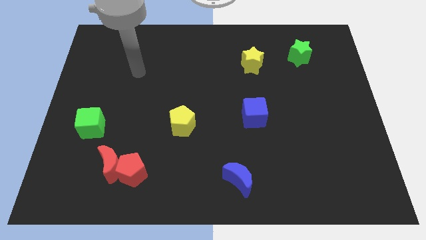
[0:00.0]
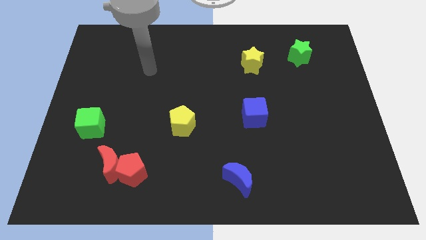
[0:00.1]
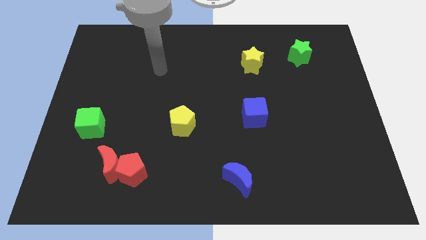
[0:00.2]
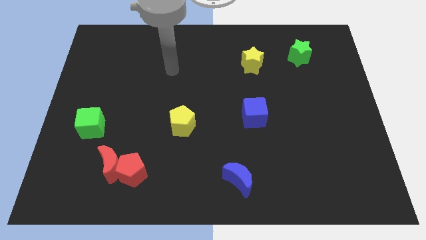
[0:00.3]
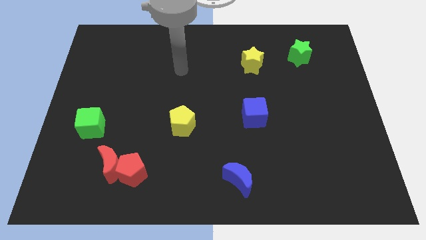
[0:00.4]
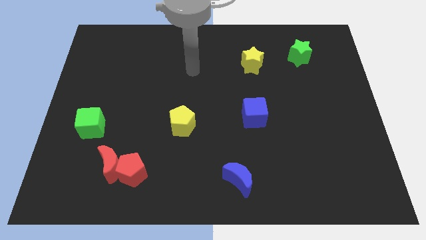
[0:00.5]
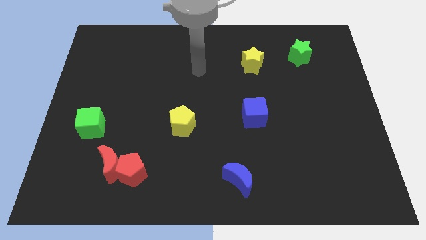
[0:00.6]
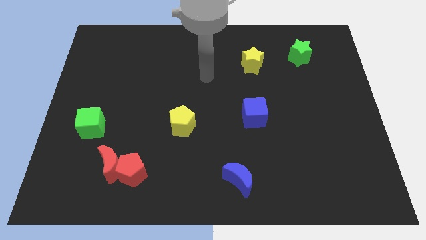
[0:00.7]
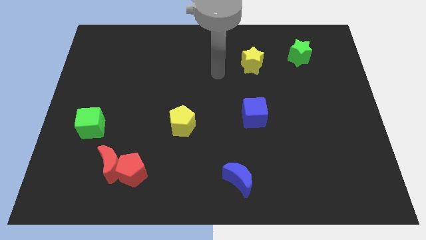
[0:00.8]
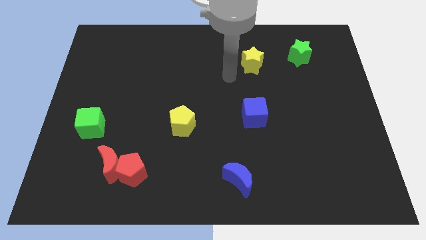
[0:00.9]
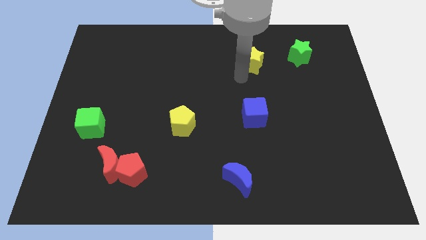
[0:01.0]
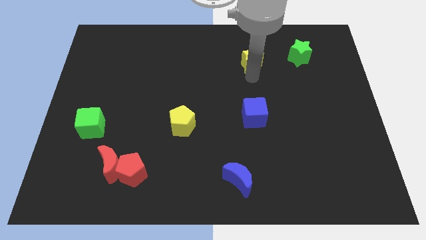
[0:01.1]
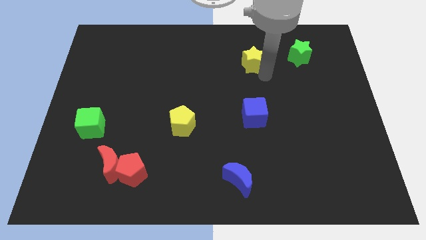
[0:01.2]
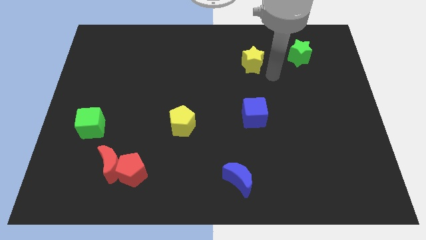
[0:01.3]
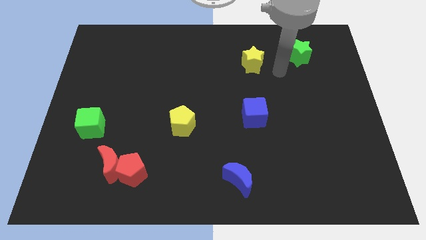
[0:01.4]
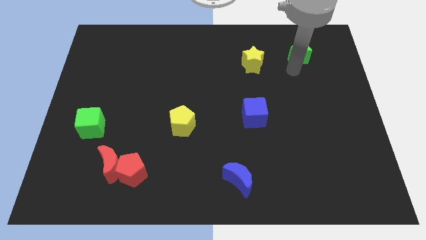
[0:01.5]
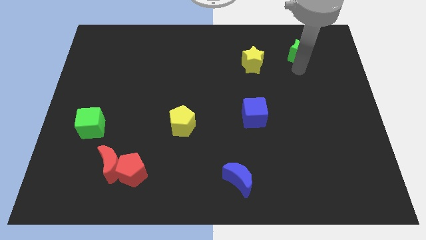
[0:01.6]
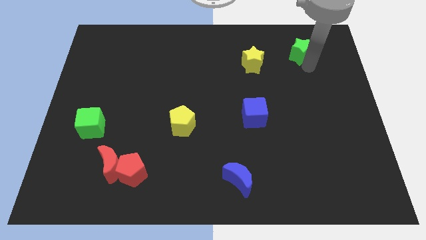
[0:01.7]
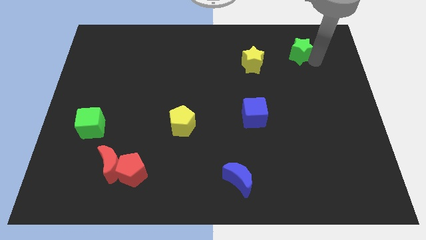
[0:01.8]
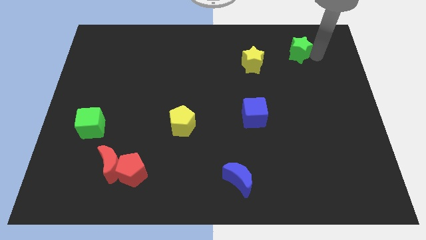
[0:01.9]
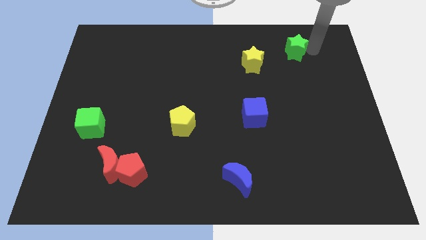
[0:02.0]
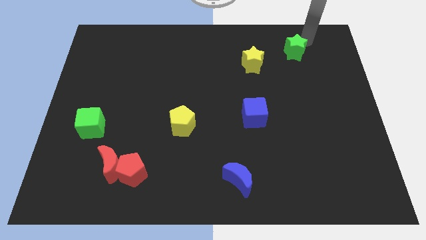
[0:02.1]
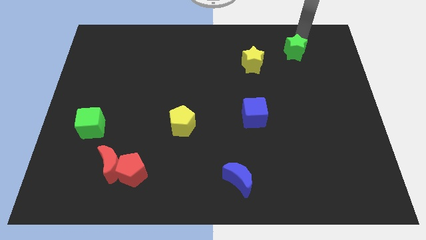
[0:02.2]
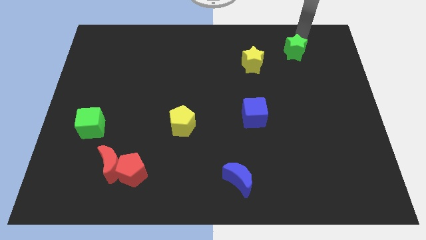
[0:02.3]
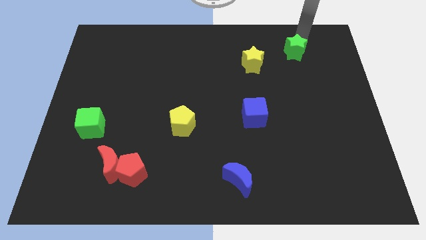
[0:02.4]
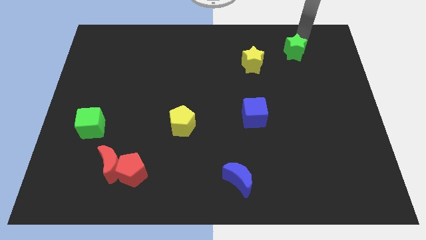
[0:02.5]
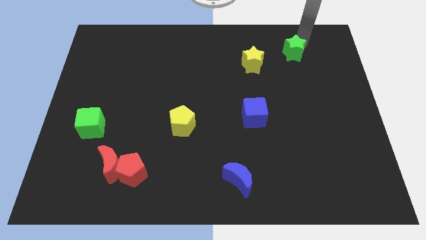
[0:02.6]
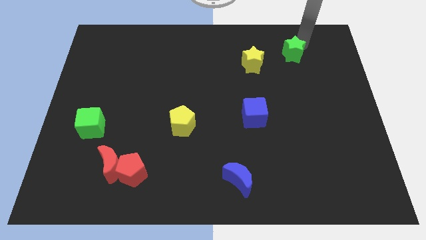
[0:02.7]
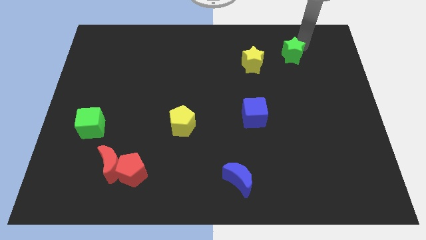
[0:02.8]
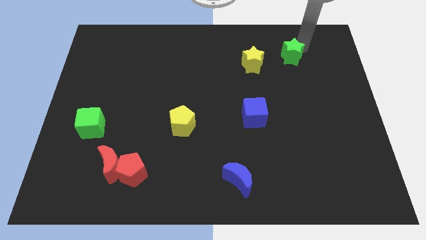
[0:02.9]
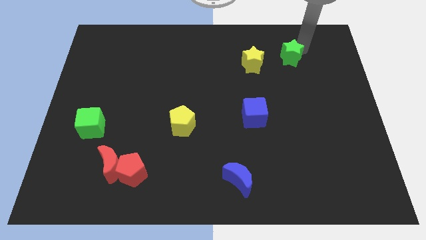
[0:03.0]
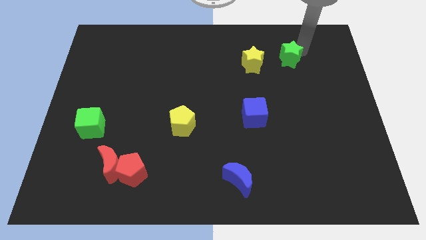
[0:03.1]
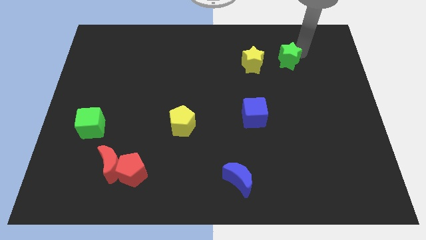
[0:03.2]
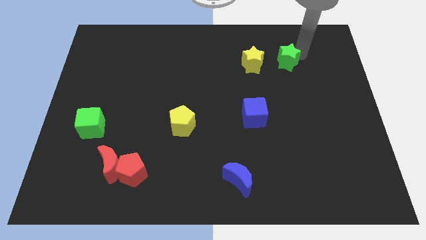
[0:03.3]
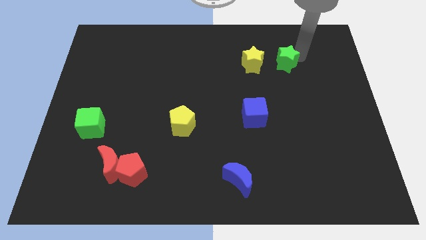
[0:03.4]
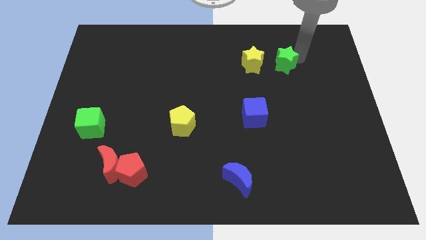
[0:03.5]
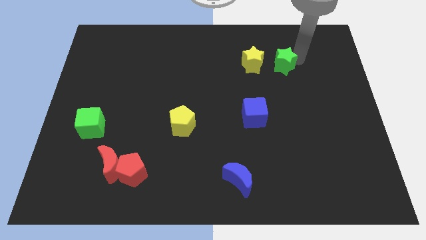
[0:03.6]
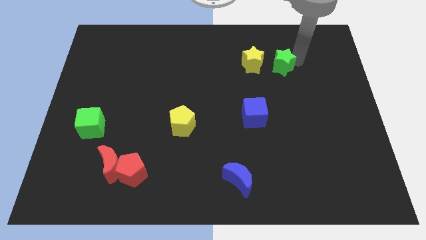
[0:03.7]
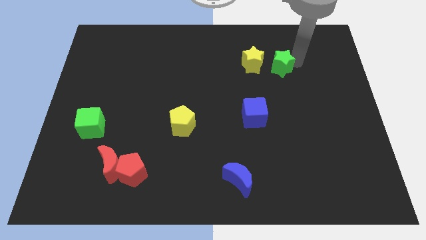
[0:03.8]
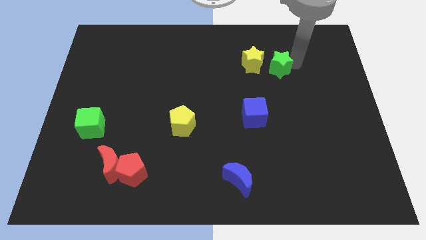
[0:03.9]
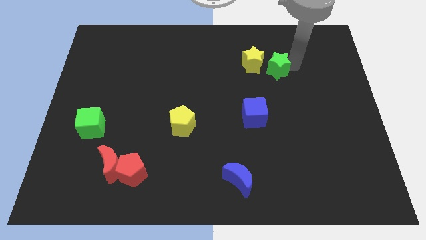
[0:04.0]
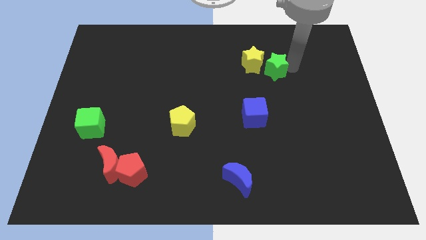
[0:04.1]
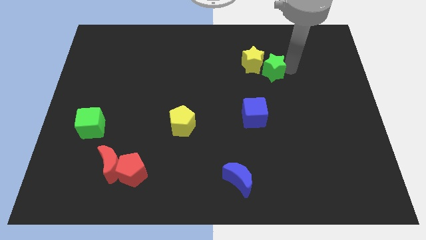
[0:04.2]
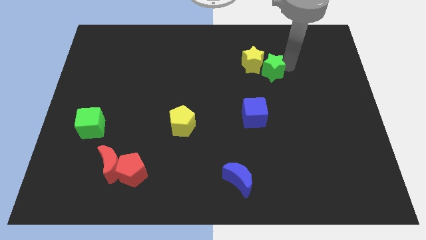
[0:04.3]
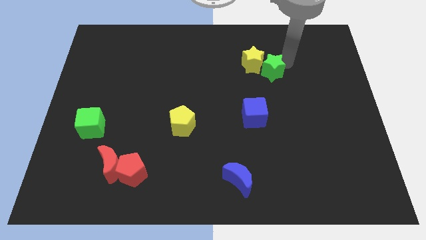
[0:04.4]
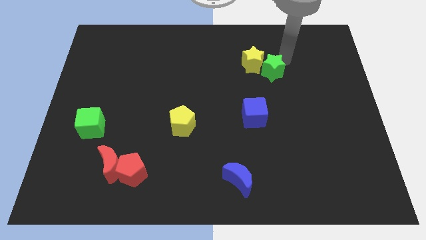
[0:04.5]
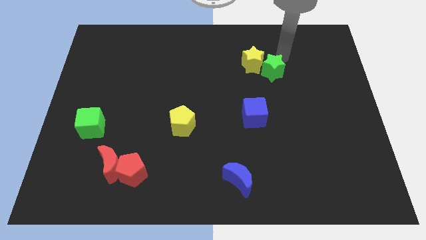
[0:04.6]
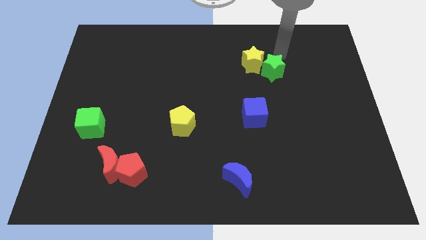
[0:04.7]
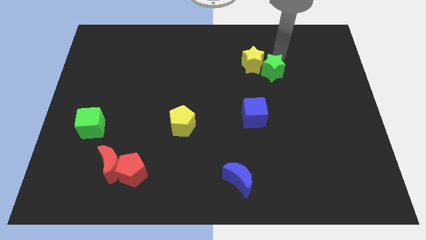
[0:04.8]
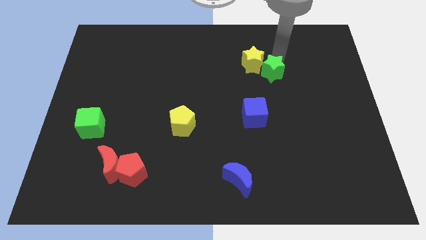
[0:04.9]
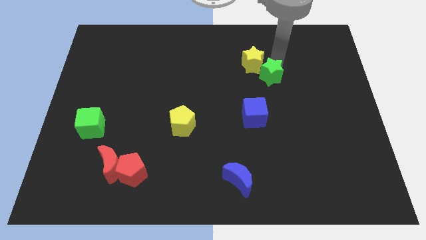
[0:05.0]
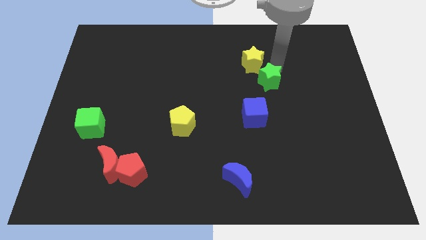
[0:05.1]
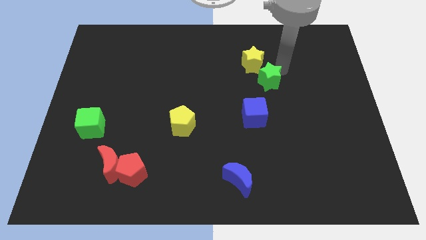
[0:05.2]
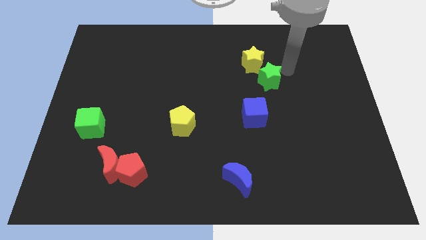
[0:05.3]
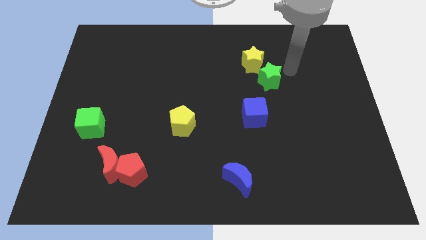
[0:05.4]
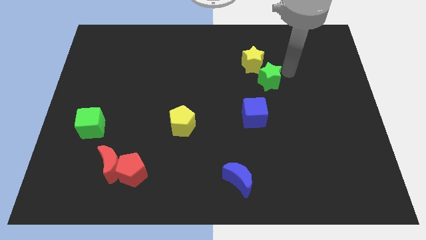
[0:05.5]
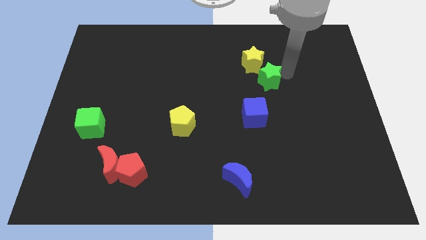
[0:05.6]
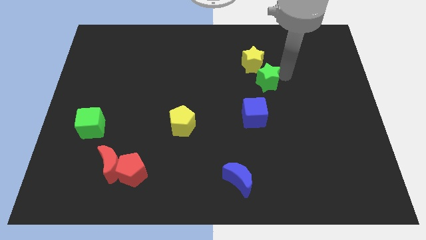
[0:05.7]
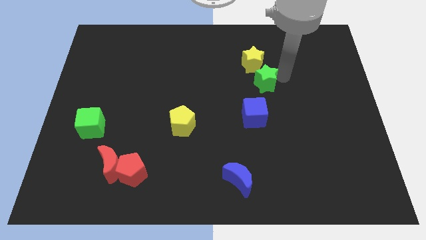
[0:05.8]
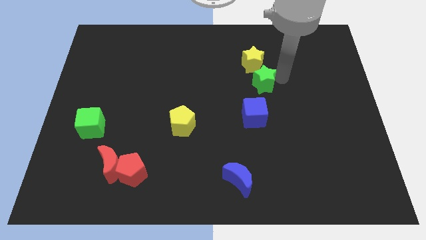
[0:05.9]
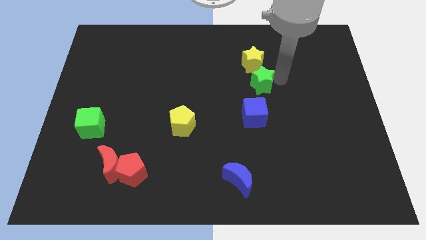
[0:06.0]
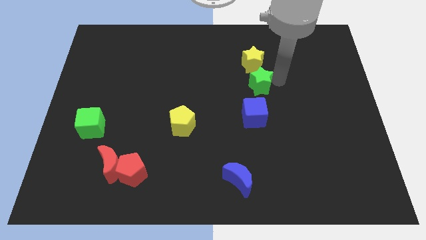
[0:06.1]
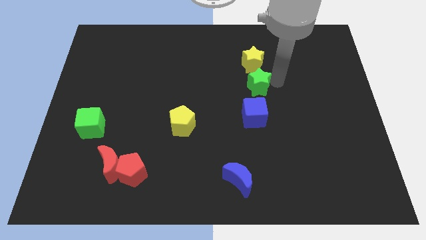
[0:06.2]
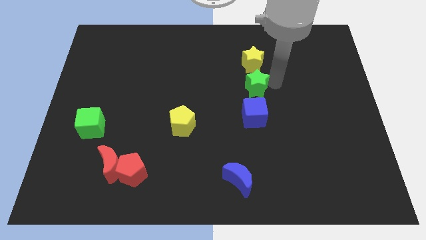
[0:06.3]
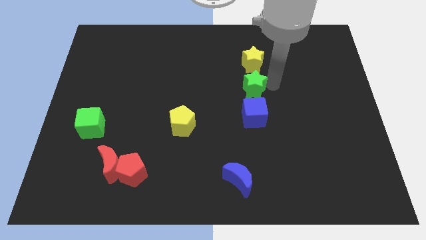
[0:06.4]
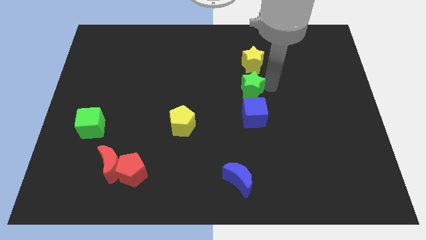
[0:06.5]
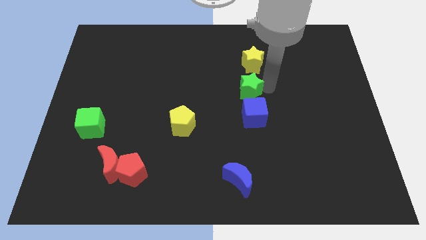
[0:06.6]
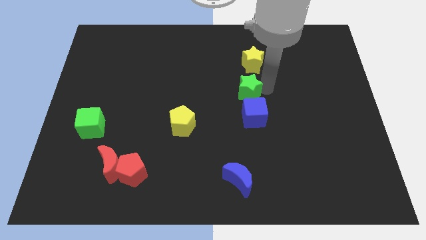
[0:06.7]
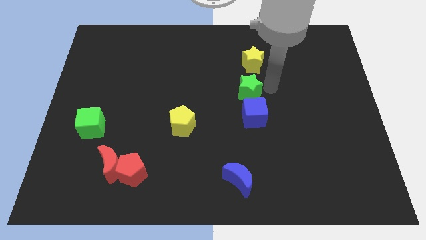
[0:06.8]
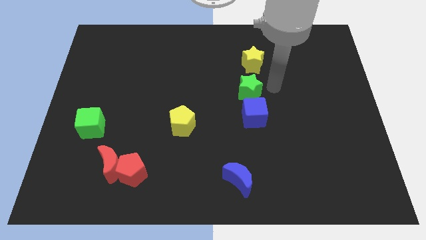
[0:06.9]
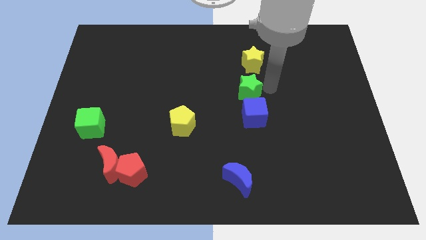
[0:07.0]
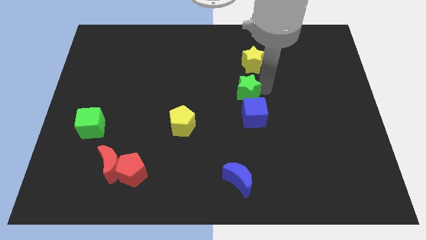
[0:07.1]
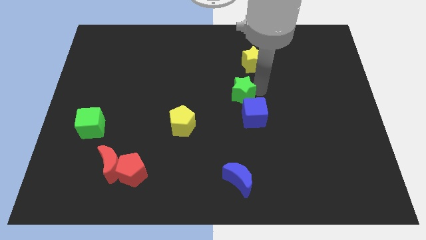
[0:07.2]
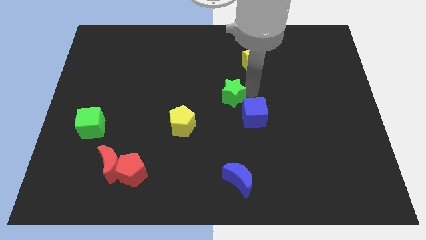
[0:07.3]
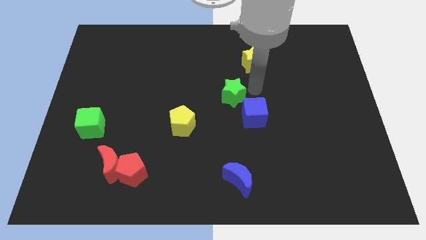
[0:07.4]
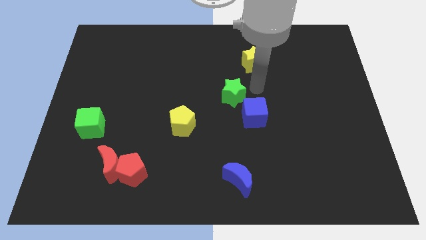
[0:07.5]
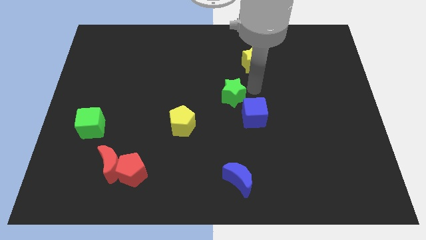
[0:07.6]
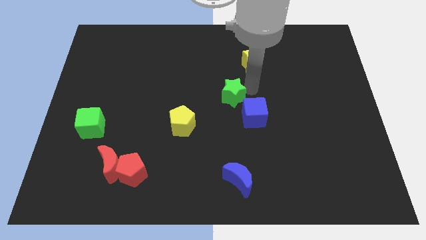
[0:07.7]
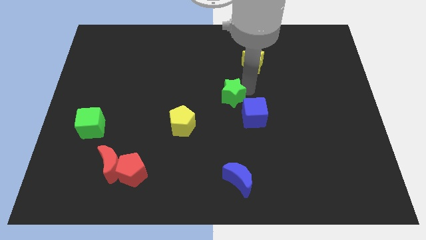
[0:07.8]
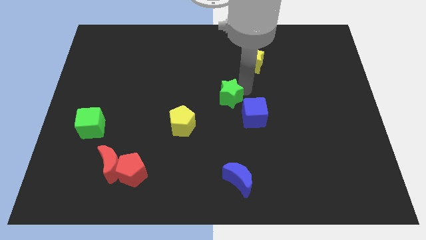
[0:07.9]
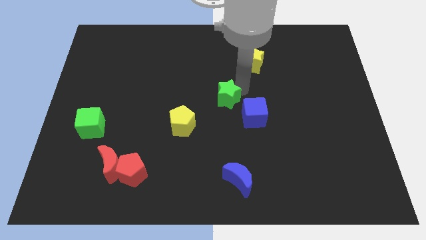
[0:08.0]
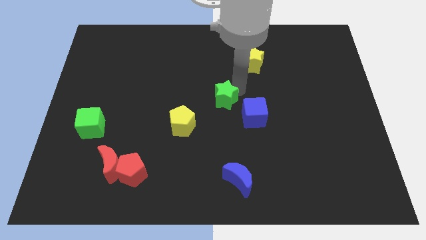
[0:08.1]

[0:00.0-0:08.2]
put the green star to the top right side of the yellow pentagon
